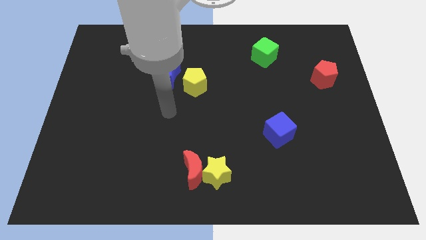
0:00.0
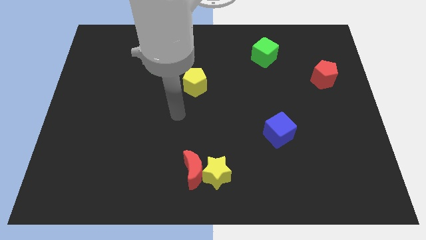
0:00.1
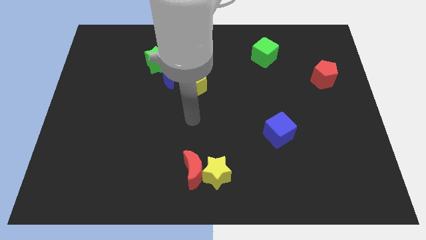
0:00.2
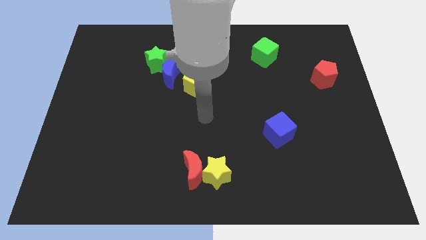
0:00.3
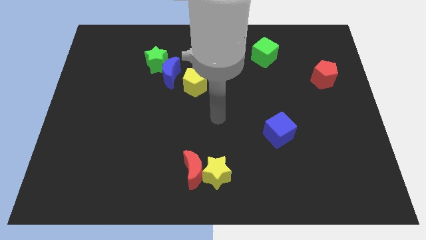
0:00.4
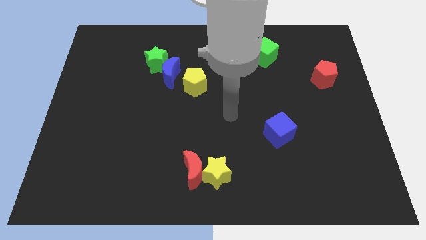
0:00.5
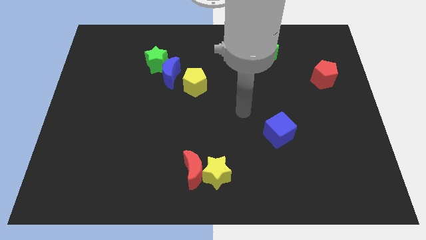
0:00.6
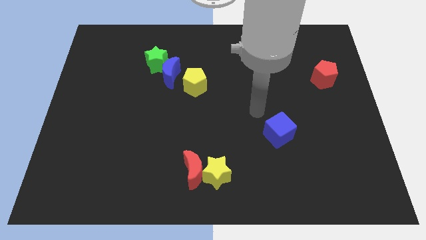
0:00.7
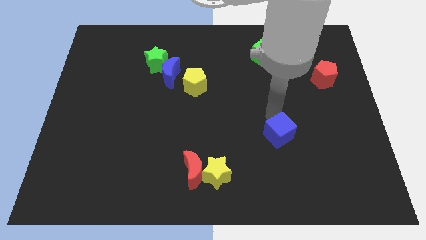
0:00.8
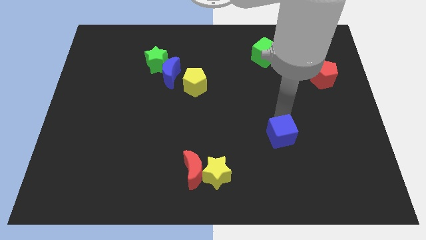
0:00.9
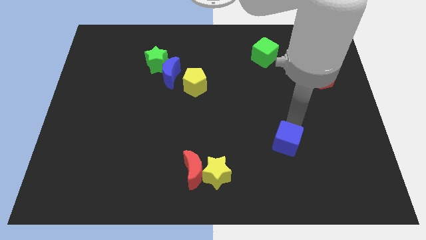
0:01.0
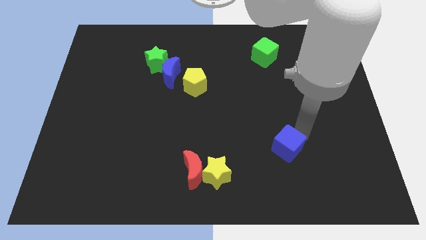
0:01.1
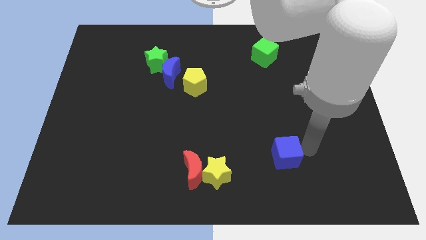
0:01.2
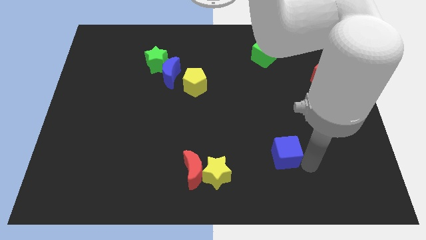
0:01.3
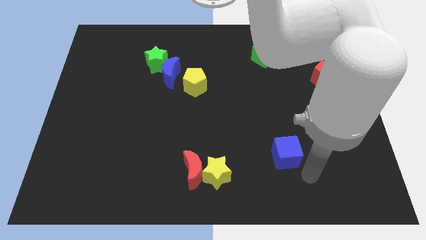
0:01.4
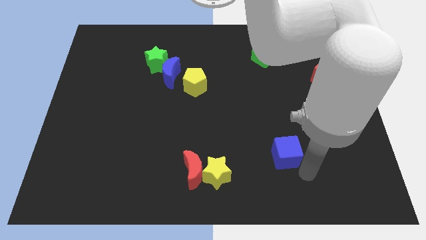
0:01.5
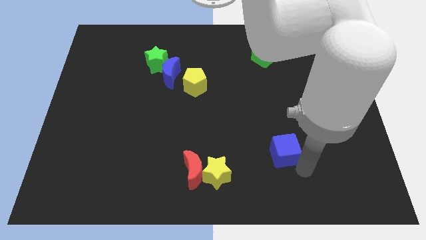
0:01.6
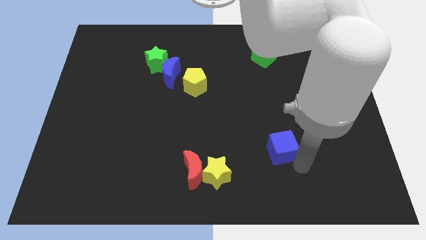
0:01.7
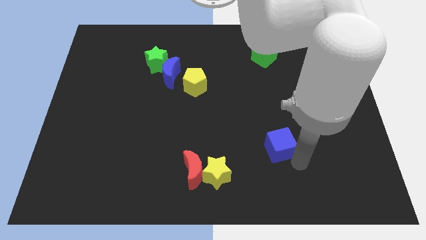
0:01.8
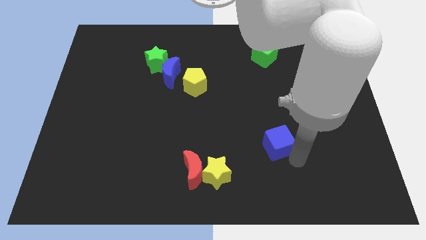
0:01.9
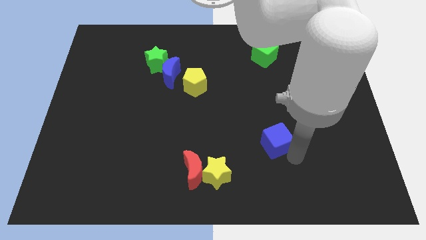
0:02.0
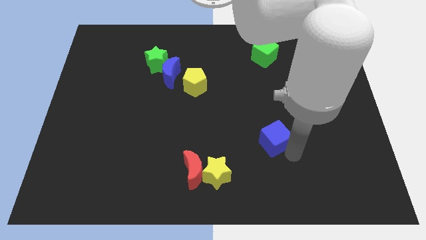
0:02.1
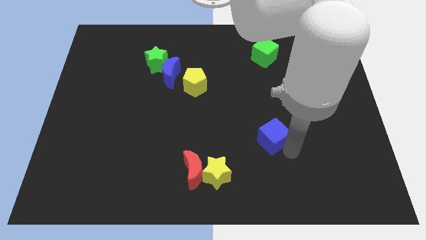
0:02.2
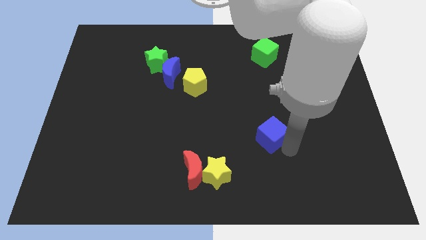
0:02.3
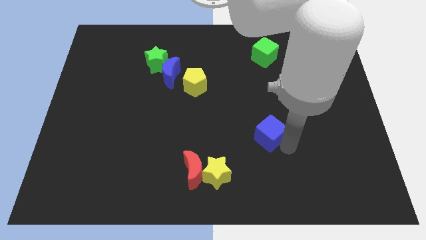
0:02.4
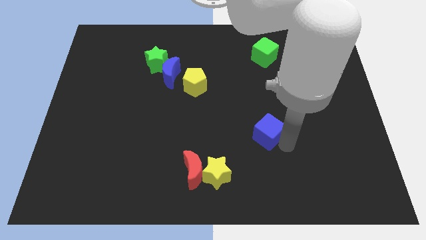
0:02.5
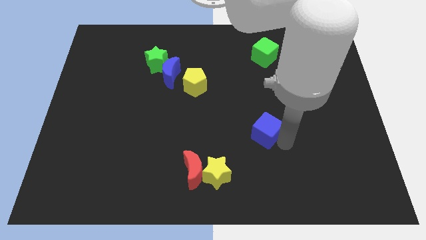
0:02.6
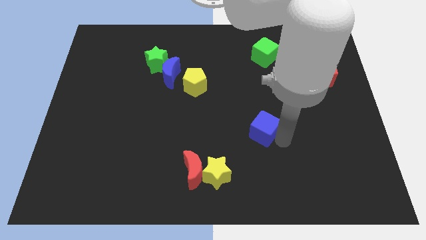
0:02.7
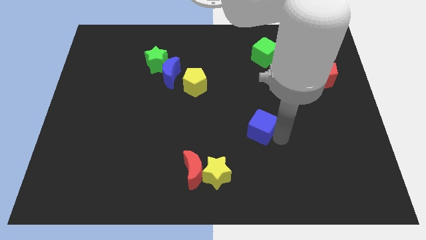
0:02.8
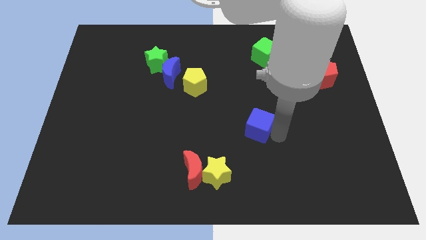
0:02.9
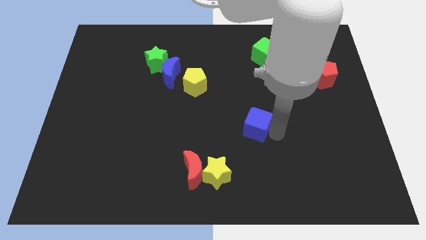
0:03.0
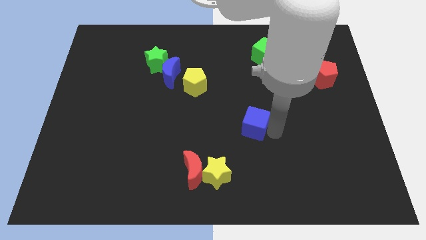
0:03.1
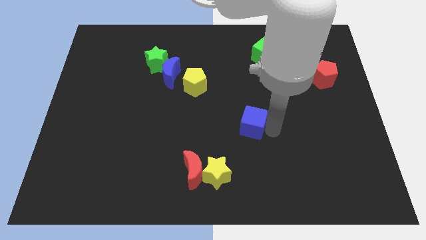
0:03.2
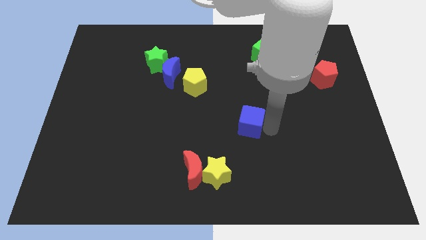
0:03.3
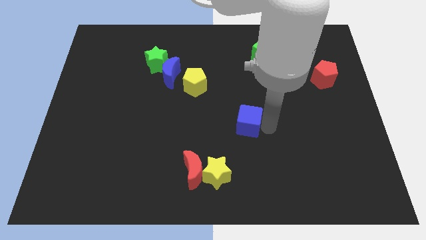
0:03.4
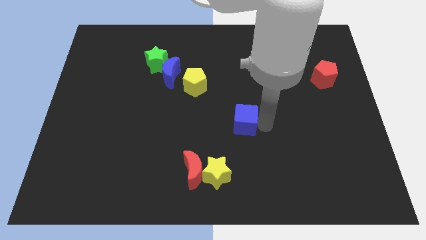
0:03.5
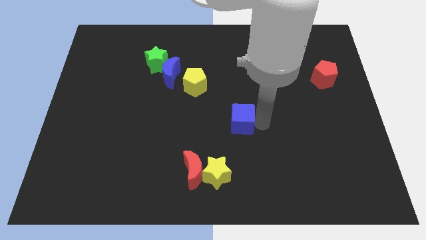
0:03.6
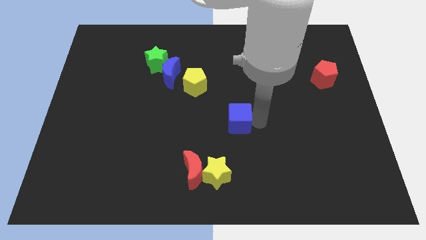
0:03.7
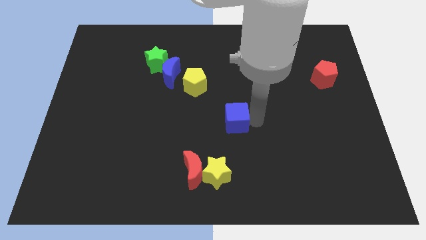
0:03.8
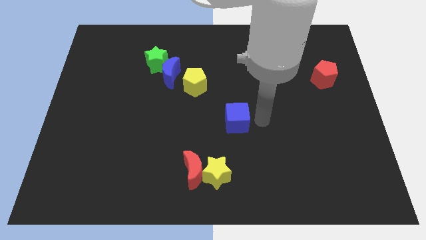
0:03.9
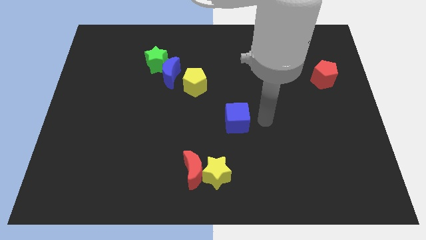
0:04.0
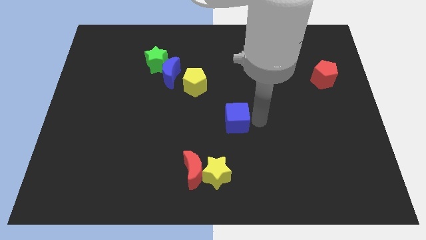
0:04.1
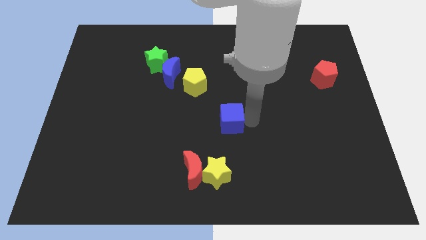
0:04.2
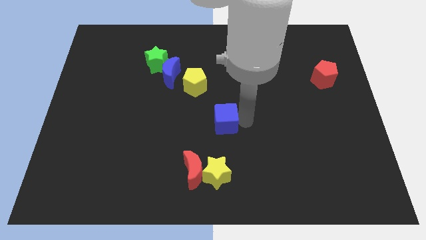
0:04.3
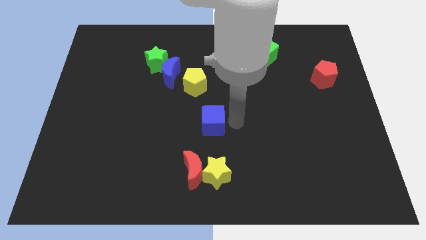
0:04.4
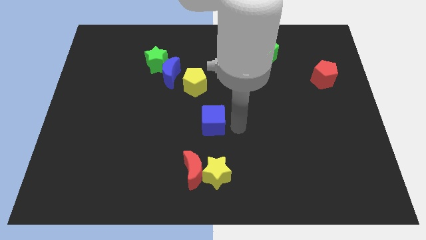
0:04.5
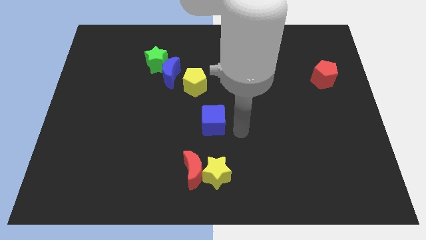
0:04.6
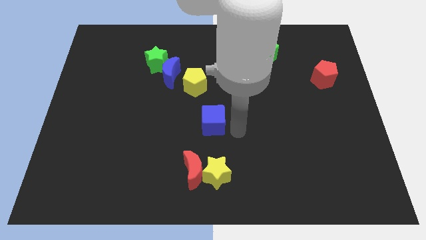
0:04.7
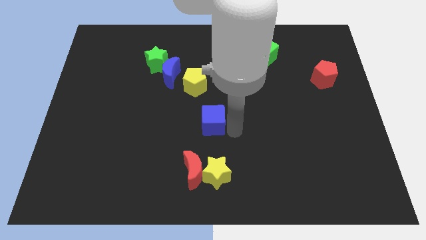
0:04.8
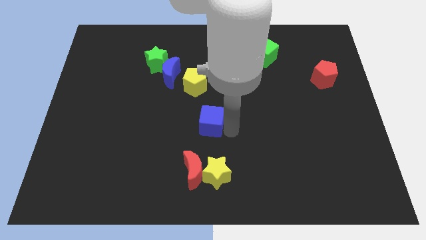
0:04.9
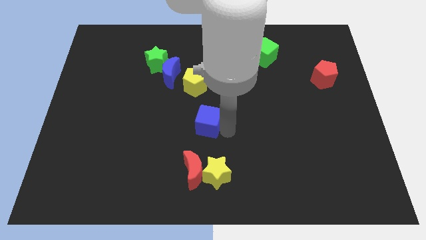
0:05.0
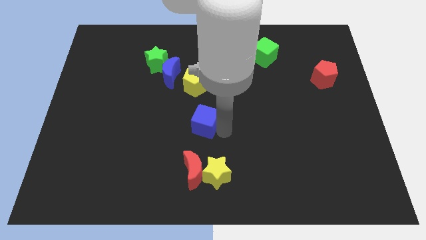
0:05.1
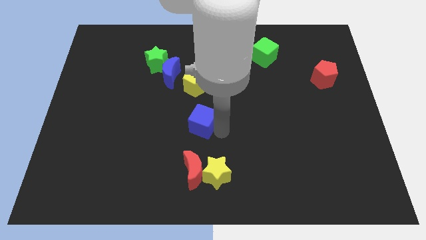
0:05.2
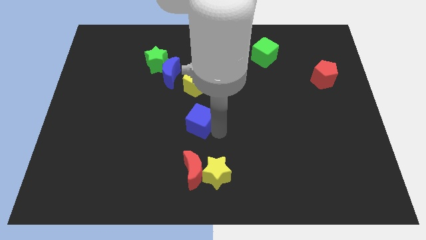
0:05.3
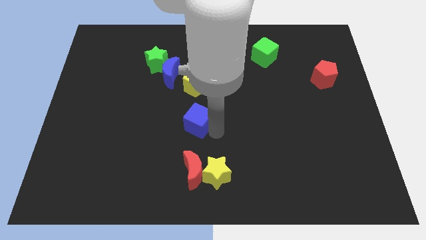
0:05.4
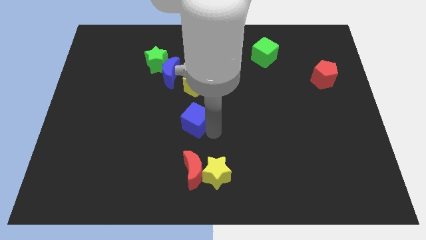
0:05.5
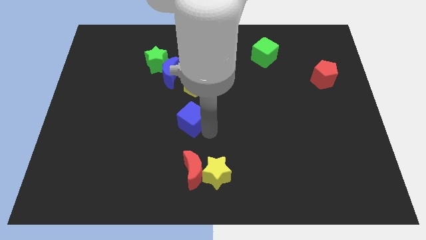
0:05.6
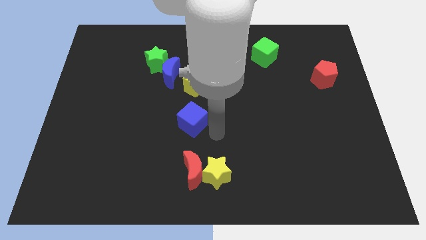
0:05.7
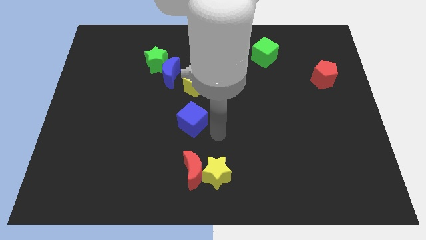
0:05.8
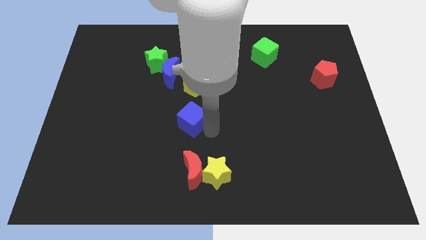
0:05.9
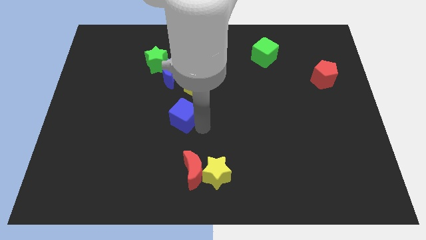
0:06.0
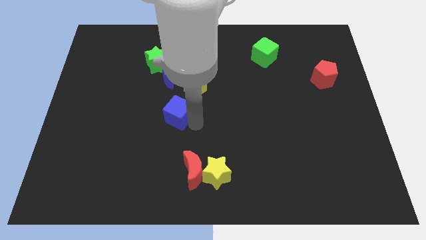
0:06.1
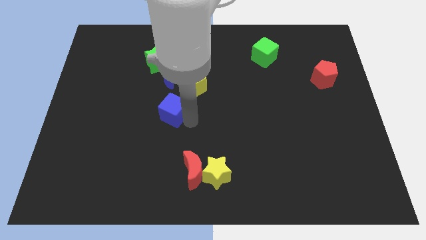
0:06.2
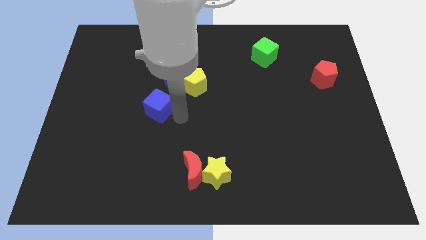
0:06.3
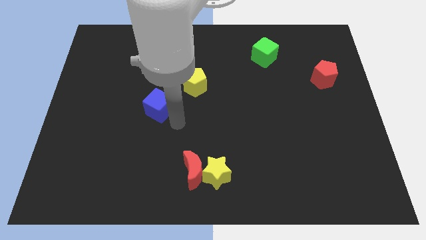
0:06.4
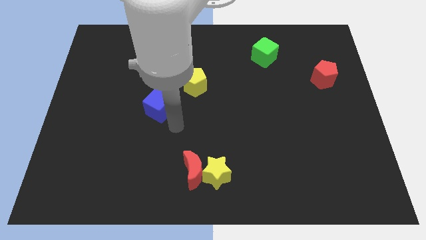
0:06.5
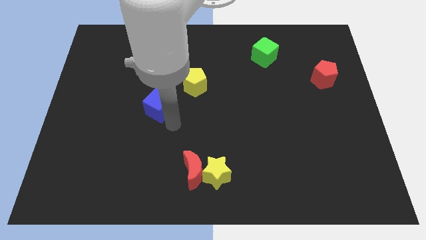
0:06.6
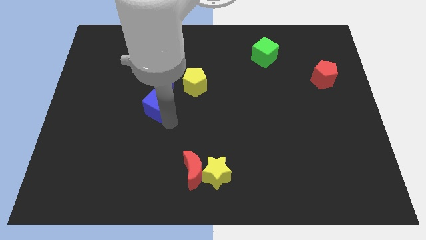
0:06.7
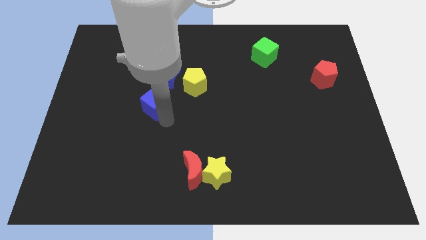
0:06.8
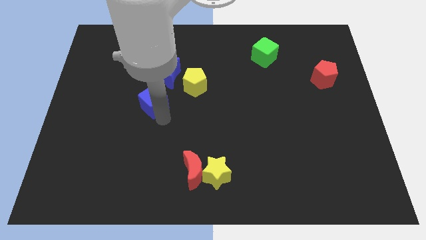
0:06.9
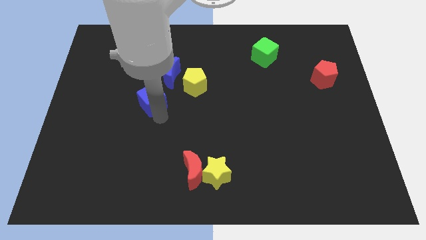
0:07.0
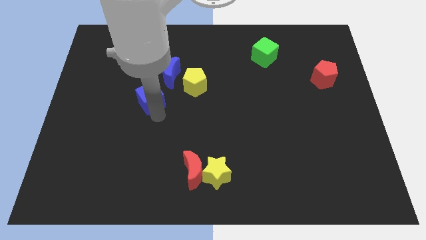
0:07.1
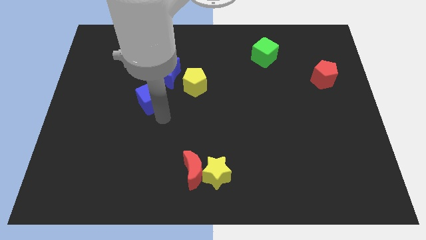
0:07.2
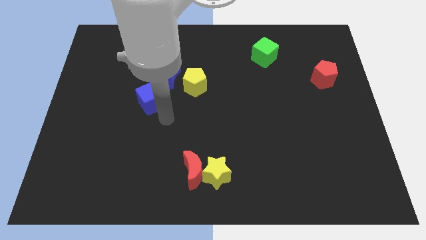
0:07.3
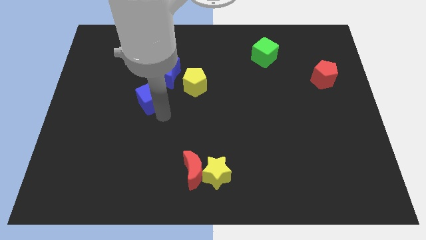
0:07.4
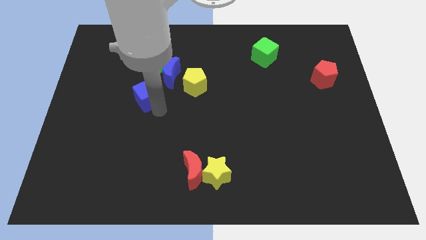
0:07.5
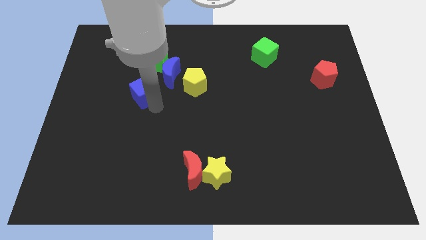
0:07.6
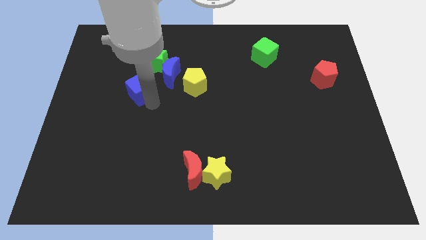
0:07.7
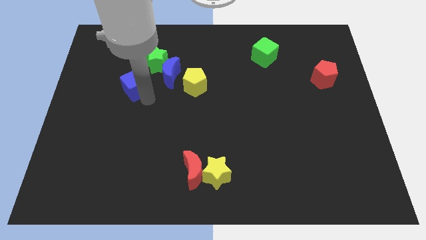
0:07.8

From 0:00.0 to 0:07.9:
move the blue cube left of the blue moon
